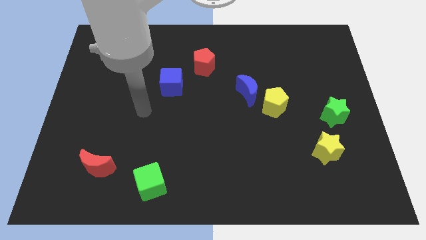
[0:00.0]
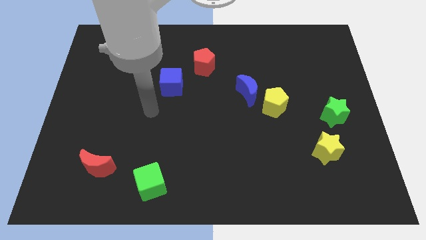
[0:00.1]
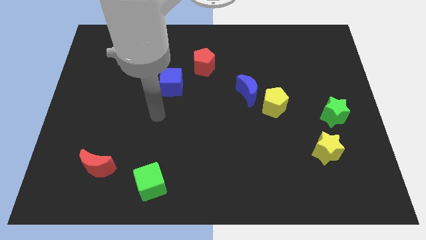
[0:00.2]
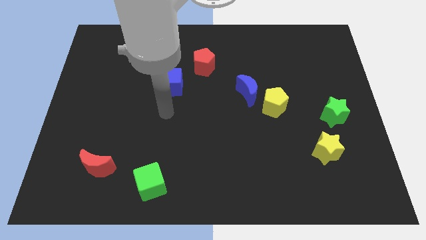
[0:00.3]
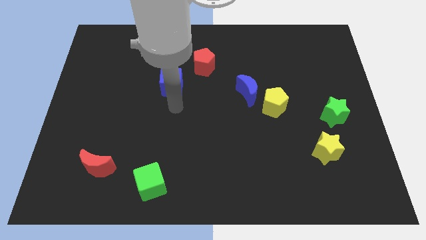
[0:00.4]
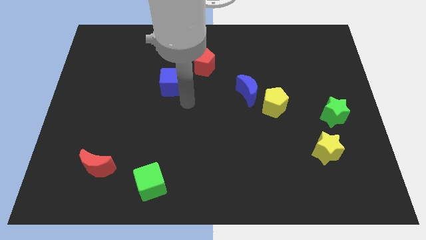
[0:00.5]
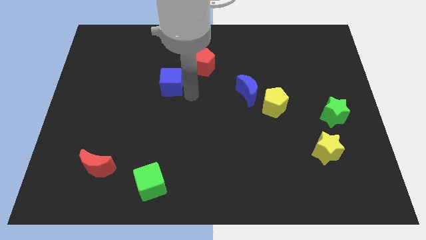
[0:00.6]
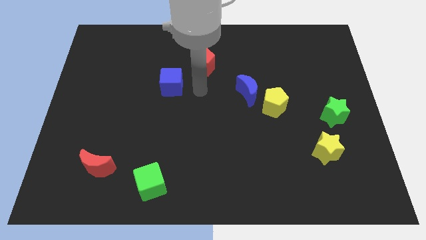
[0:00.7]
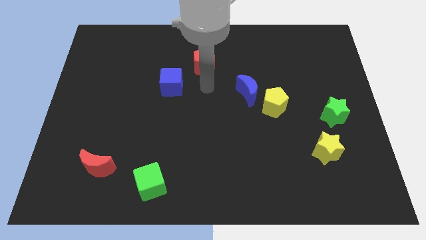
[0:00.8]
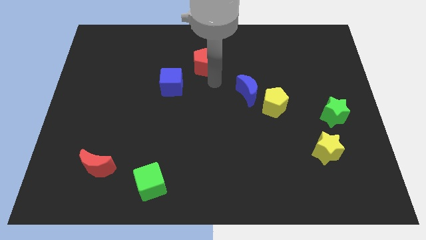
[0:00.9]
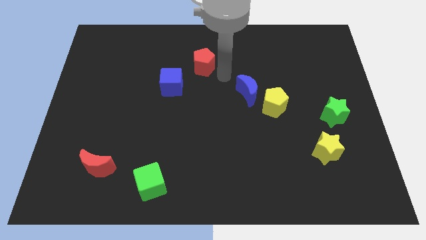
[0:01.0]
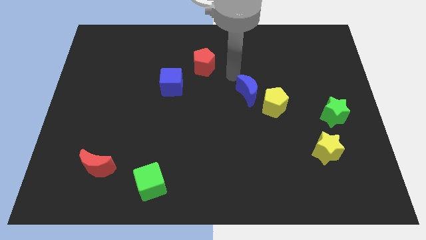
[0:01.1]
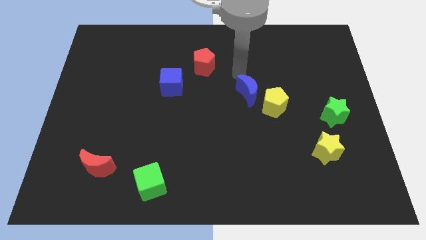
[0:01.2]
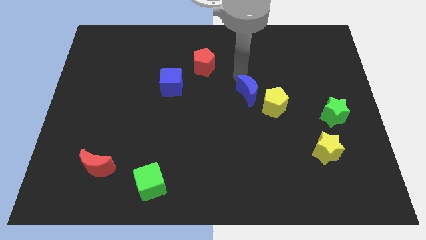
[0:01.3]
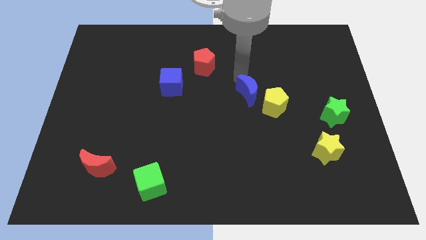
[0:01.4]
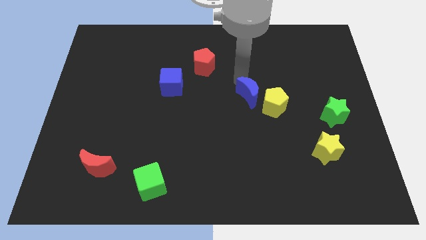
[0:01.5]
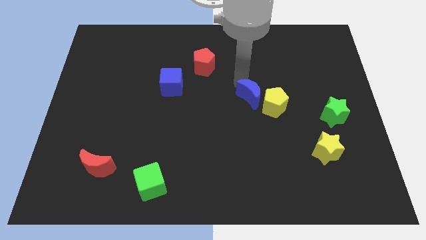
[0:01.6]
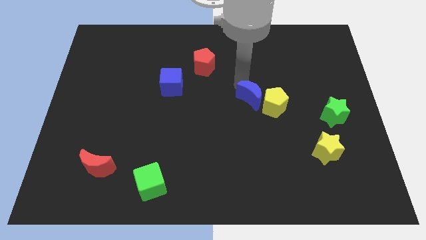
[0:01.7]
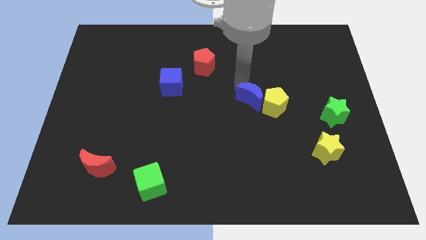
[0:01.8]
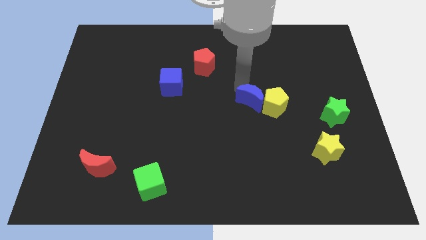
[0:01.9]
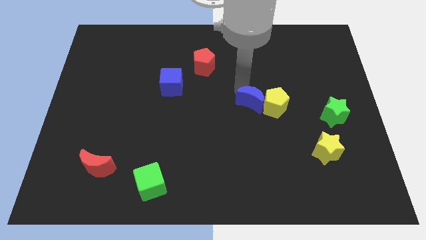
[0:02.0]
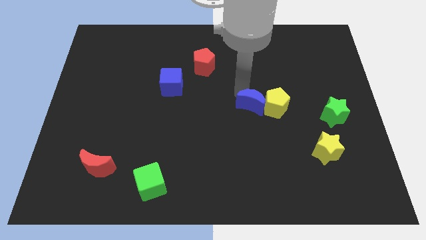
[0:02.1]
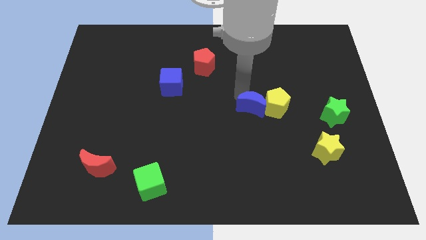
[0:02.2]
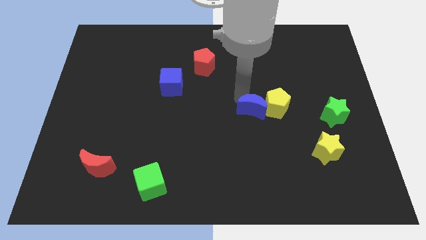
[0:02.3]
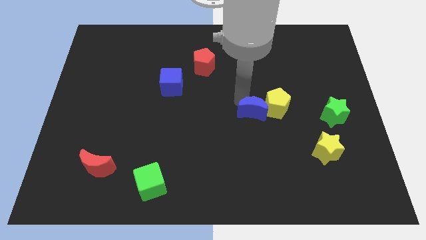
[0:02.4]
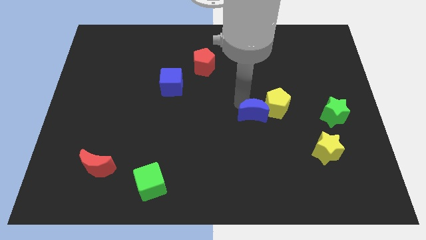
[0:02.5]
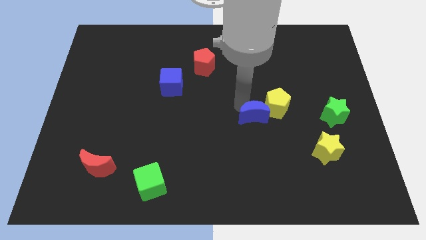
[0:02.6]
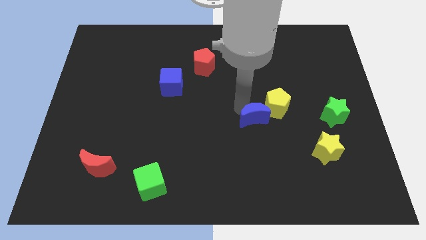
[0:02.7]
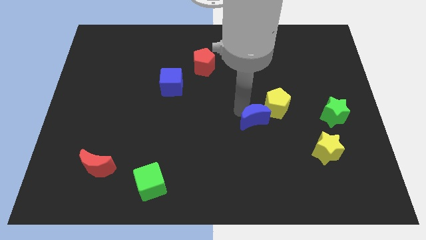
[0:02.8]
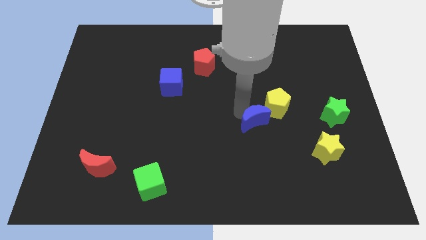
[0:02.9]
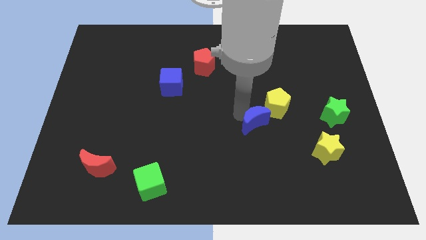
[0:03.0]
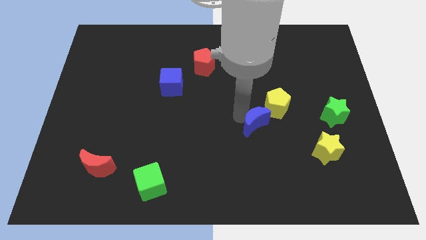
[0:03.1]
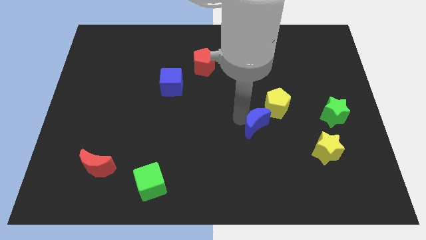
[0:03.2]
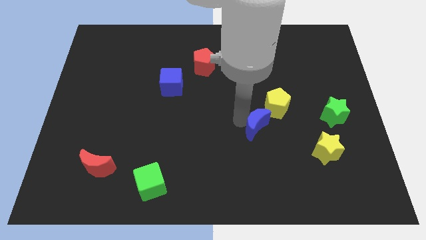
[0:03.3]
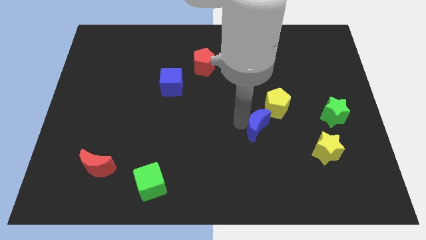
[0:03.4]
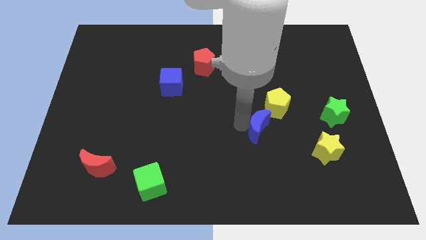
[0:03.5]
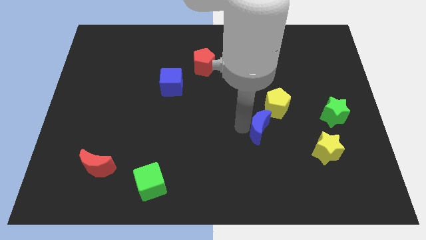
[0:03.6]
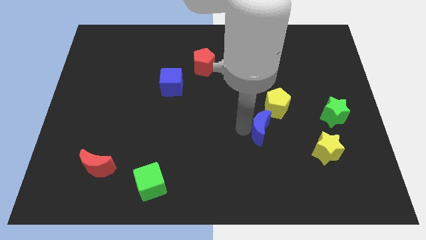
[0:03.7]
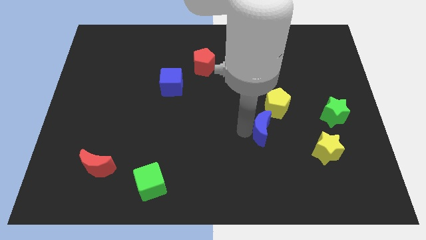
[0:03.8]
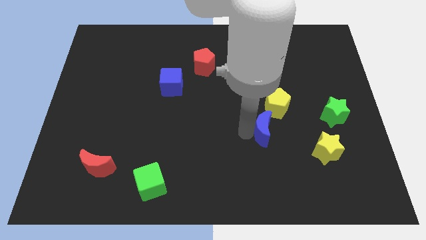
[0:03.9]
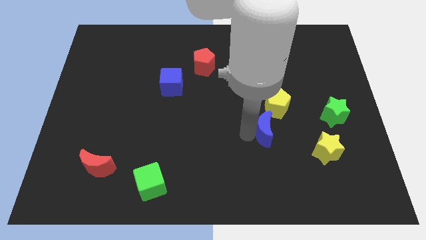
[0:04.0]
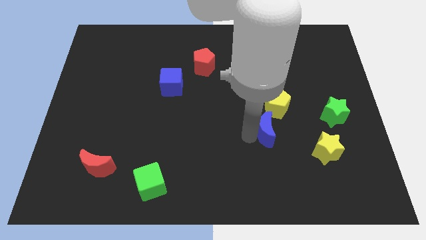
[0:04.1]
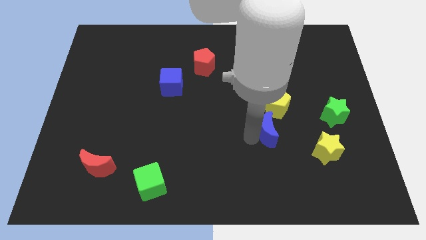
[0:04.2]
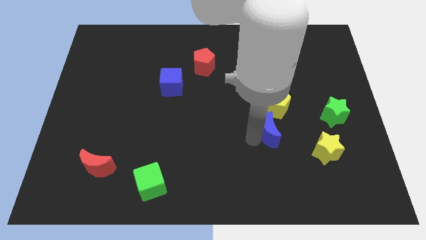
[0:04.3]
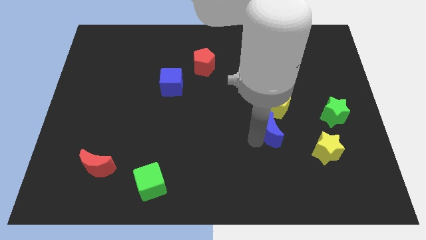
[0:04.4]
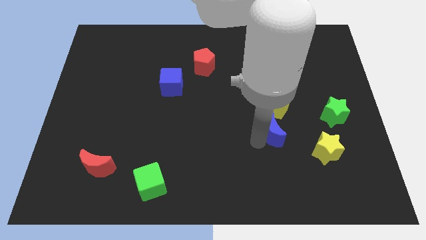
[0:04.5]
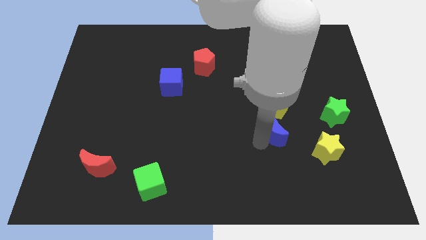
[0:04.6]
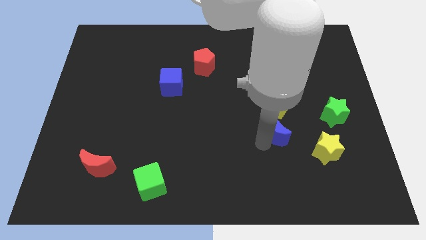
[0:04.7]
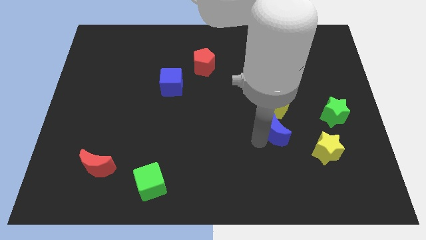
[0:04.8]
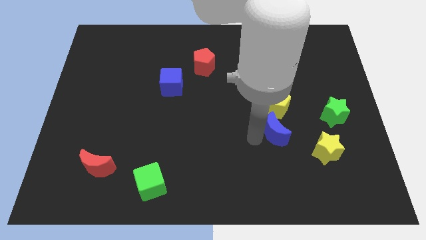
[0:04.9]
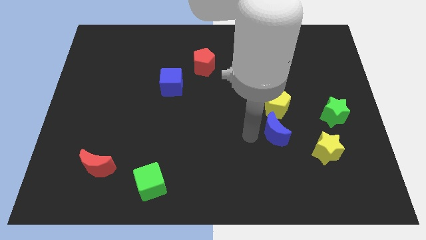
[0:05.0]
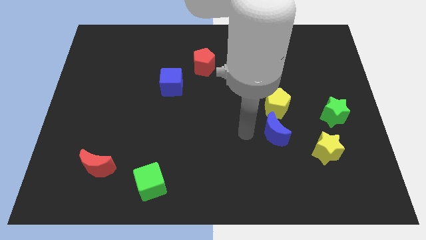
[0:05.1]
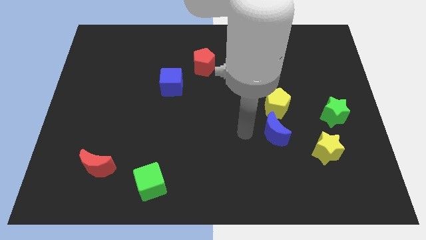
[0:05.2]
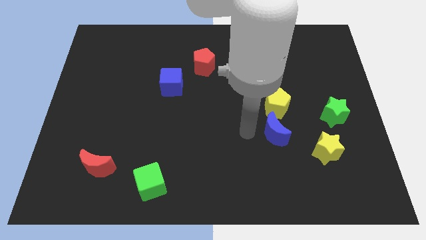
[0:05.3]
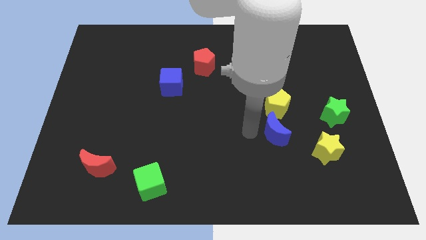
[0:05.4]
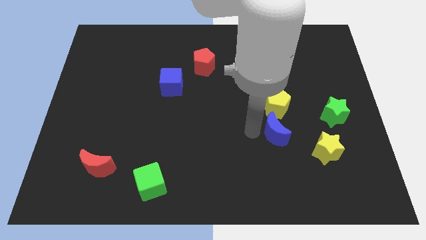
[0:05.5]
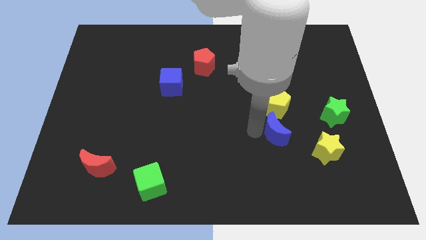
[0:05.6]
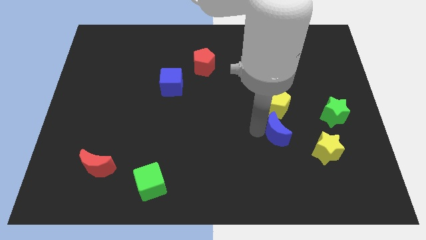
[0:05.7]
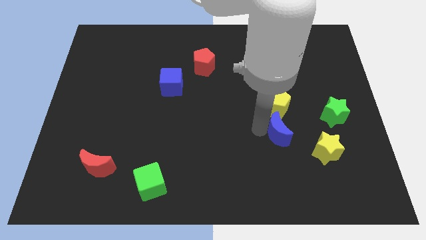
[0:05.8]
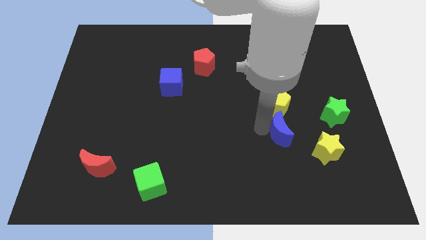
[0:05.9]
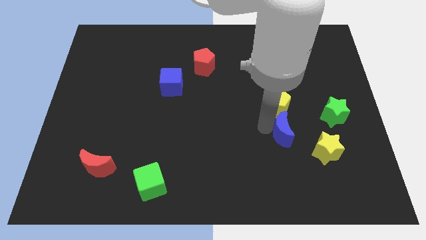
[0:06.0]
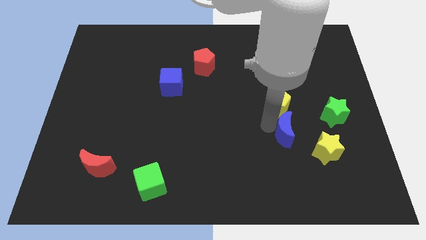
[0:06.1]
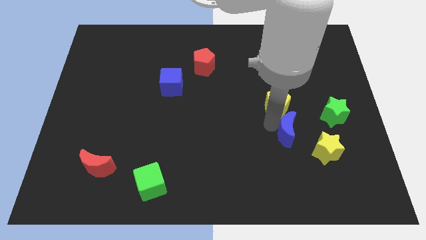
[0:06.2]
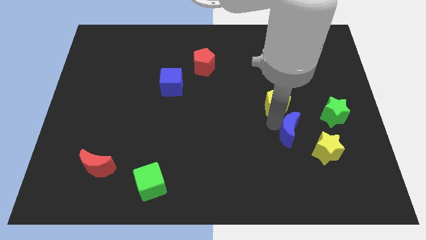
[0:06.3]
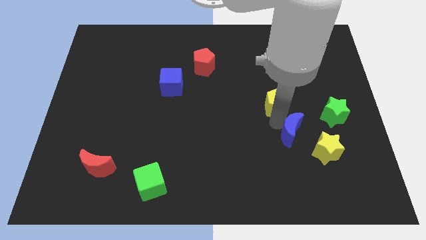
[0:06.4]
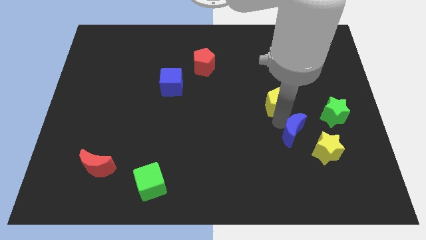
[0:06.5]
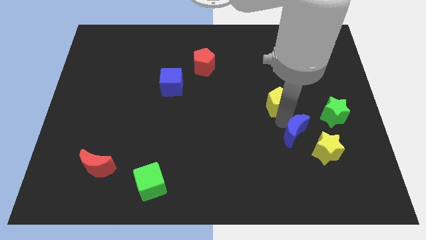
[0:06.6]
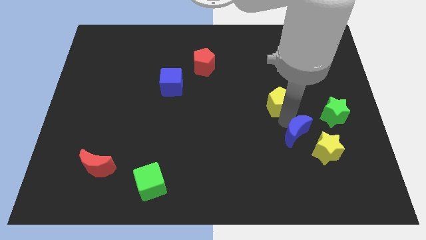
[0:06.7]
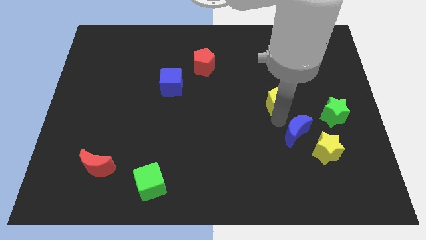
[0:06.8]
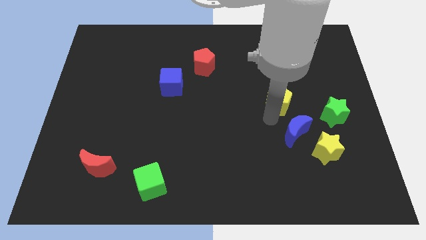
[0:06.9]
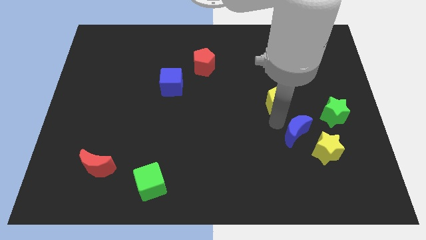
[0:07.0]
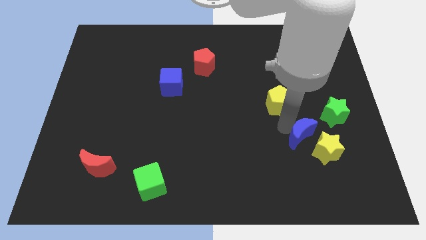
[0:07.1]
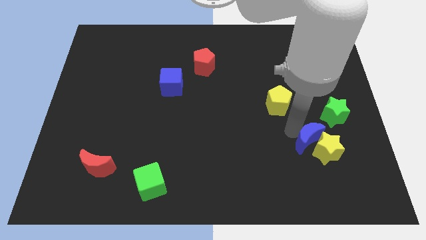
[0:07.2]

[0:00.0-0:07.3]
slide the blue moon next to the yellow star

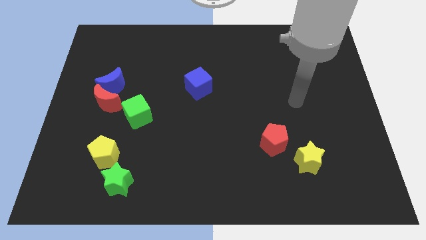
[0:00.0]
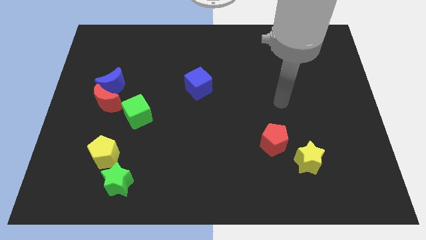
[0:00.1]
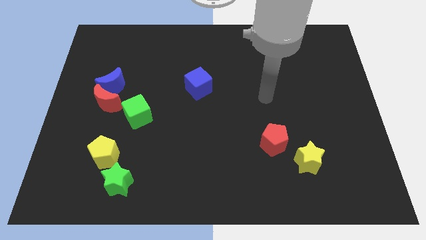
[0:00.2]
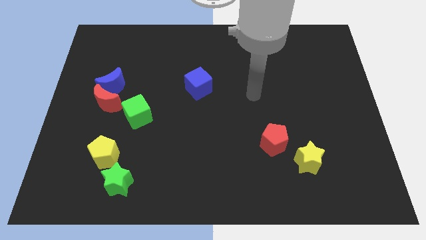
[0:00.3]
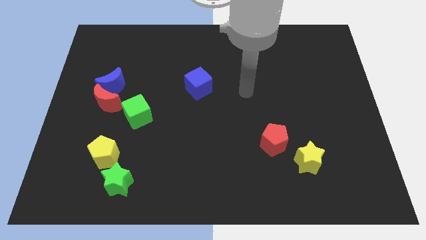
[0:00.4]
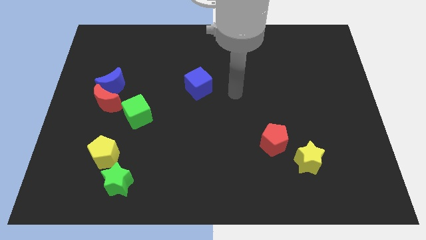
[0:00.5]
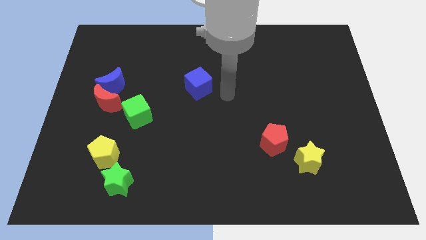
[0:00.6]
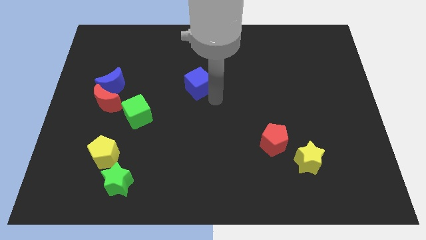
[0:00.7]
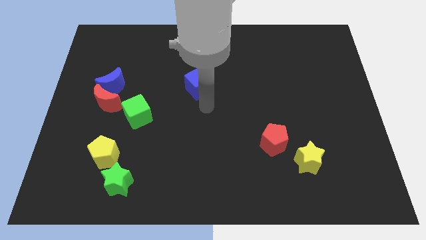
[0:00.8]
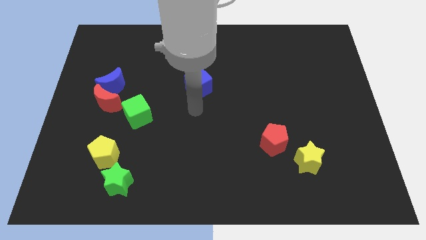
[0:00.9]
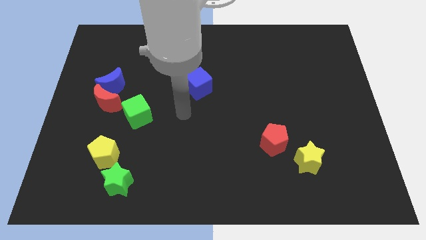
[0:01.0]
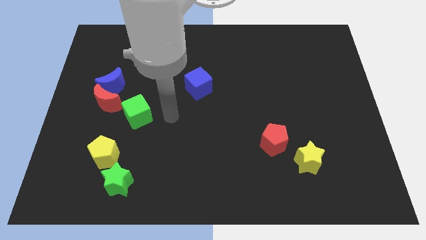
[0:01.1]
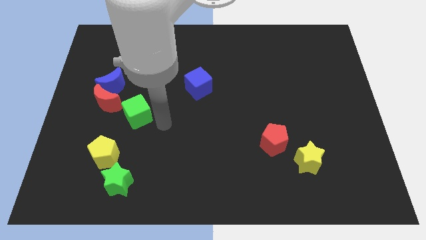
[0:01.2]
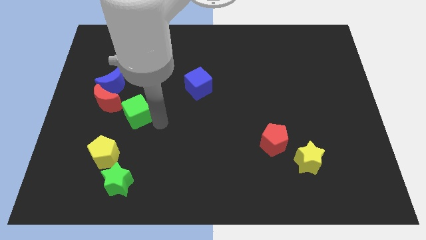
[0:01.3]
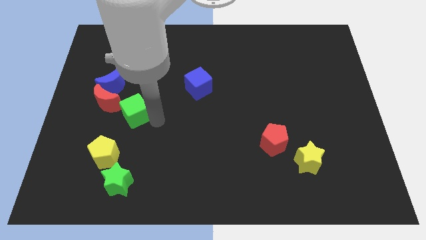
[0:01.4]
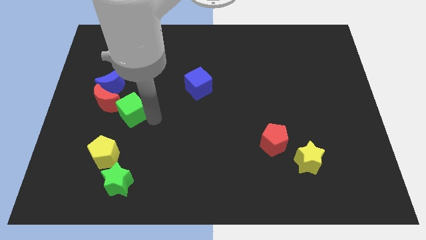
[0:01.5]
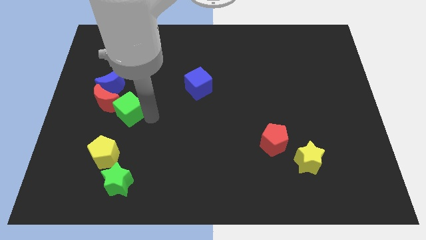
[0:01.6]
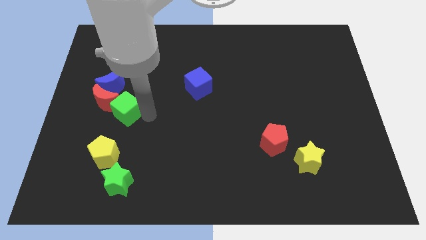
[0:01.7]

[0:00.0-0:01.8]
move the green cube towards the red moon
